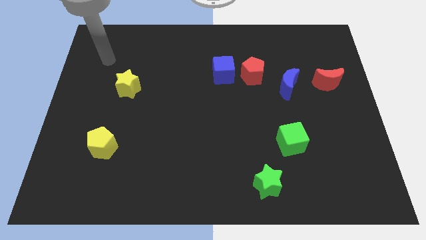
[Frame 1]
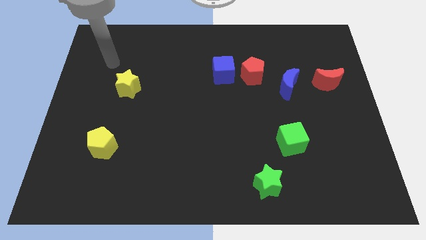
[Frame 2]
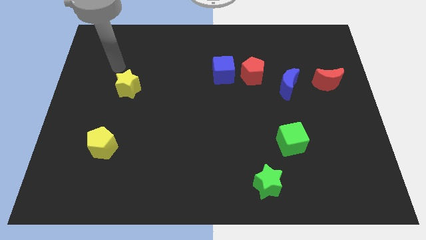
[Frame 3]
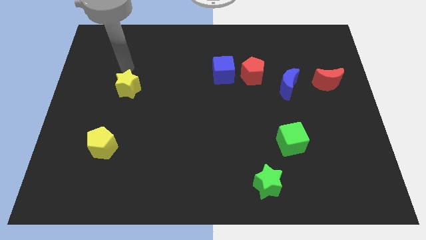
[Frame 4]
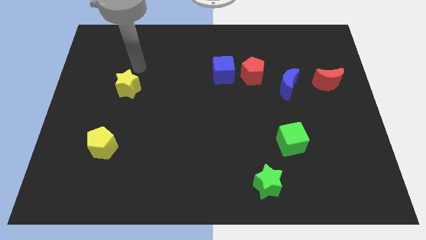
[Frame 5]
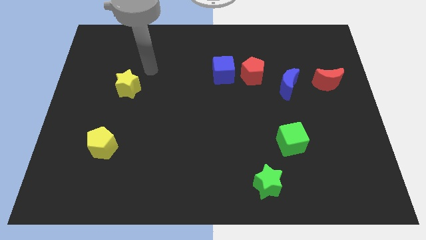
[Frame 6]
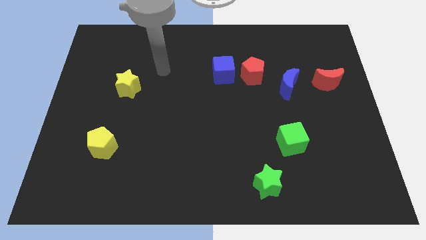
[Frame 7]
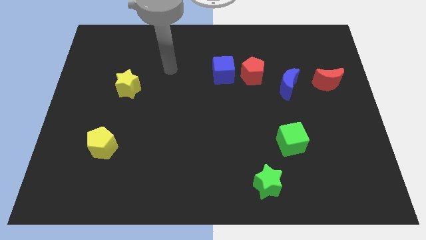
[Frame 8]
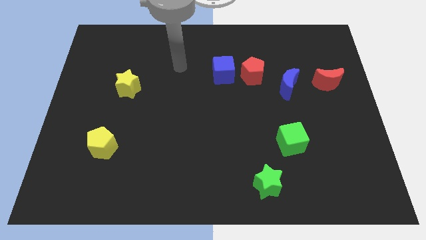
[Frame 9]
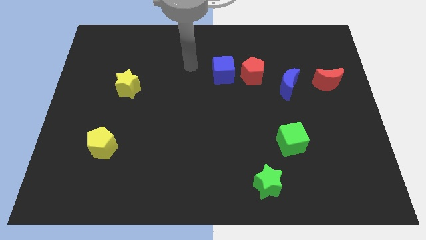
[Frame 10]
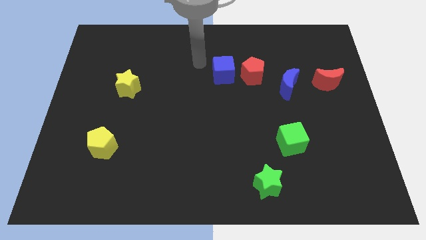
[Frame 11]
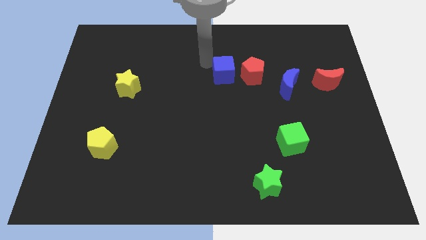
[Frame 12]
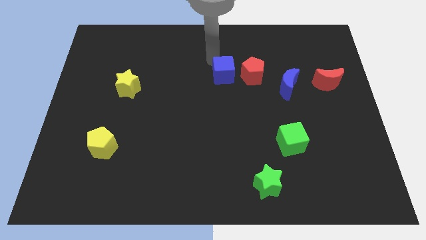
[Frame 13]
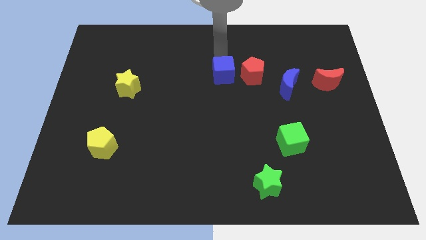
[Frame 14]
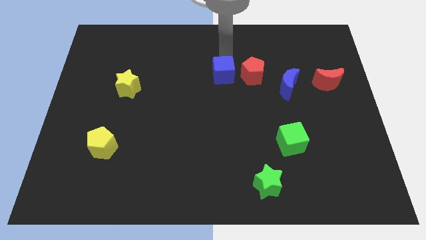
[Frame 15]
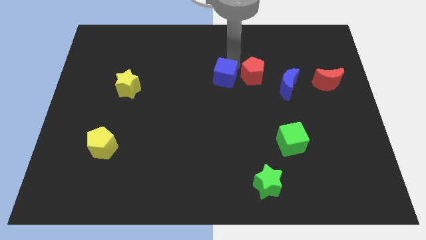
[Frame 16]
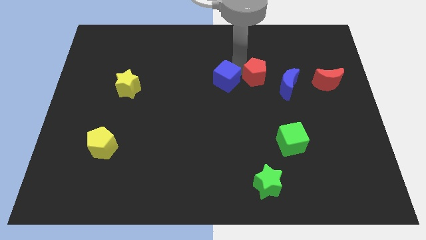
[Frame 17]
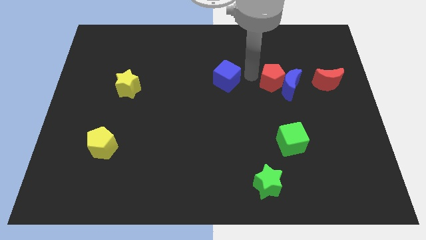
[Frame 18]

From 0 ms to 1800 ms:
pull the blue cube apart from the red pentagon

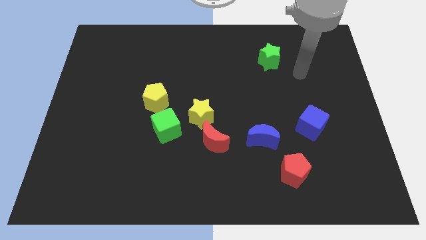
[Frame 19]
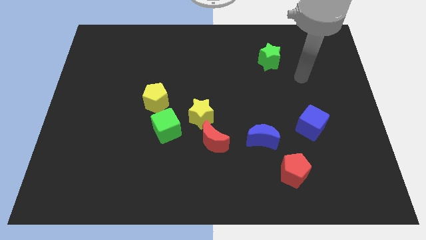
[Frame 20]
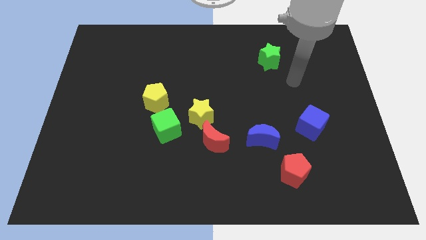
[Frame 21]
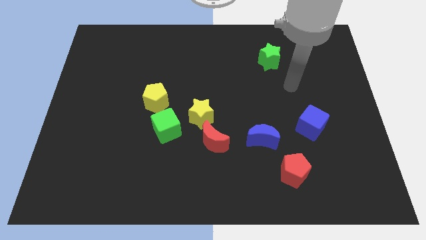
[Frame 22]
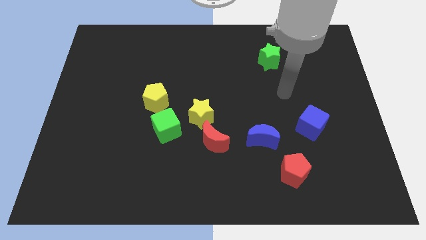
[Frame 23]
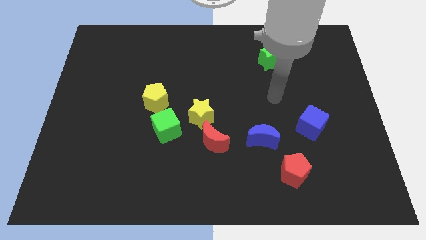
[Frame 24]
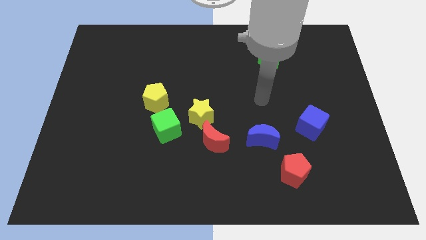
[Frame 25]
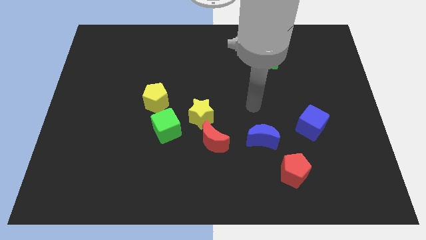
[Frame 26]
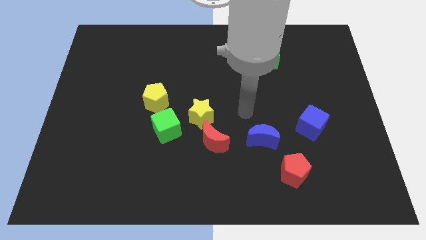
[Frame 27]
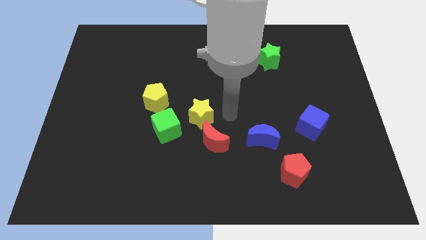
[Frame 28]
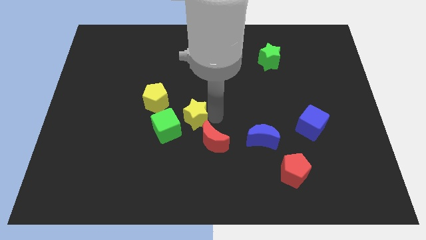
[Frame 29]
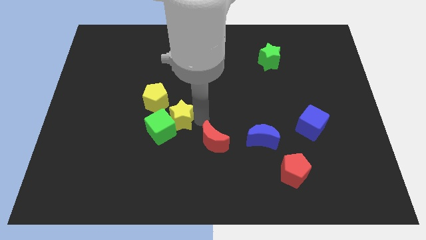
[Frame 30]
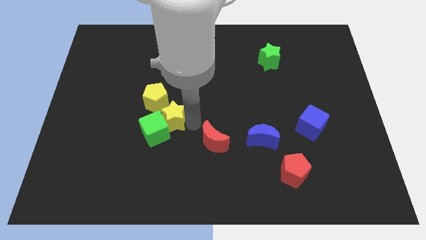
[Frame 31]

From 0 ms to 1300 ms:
pull the red moon apart from the yellow star

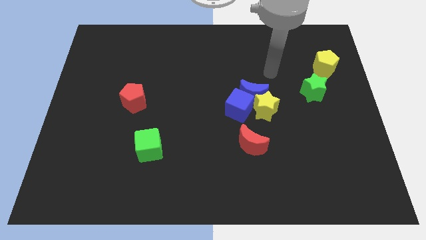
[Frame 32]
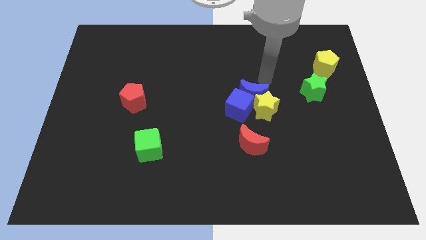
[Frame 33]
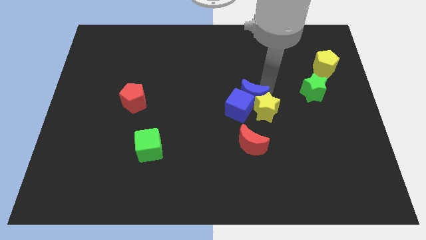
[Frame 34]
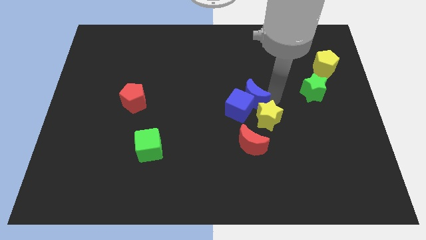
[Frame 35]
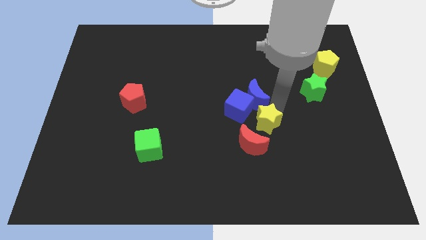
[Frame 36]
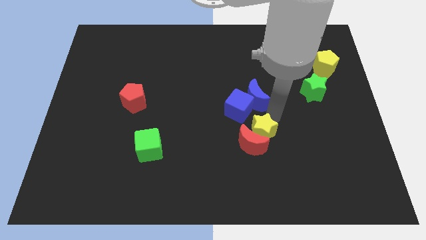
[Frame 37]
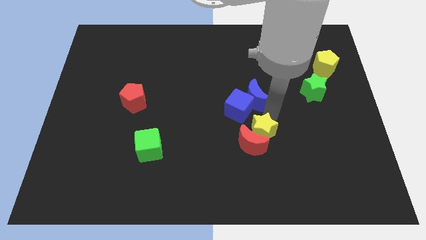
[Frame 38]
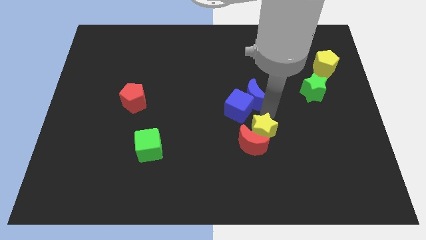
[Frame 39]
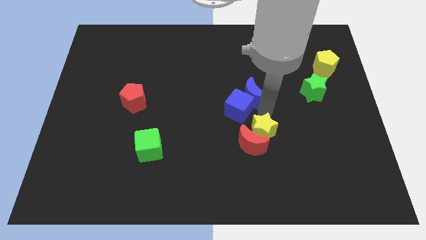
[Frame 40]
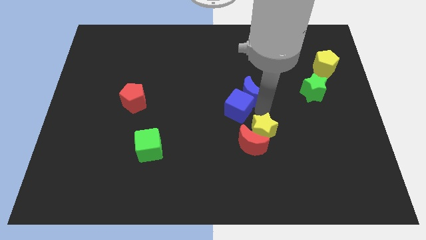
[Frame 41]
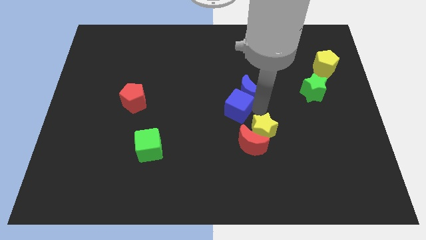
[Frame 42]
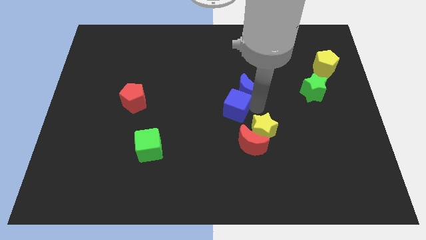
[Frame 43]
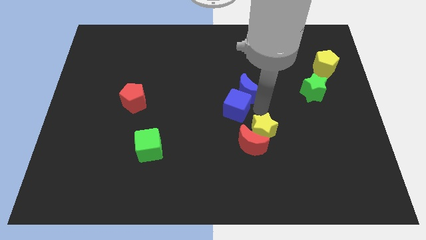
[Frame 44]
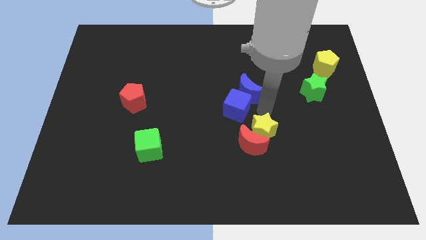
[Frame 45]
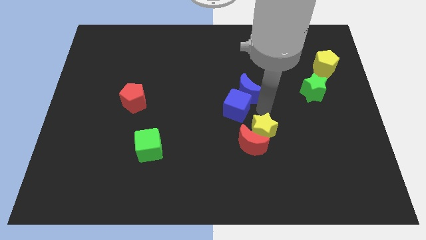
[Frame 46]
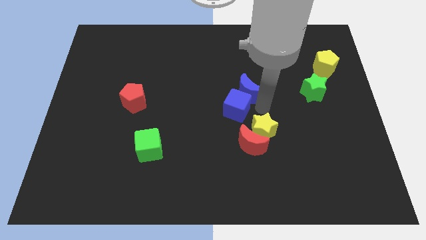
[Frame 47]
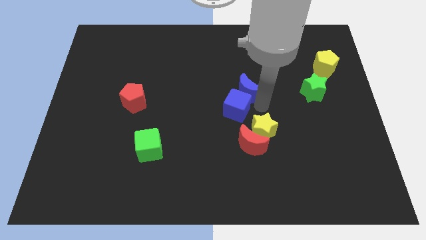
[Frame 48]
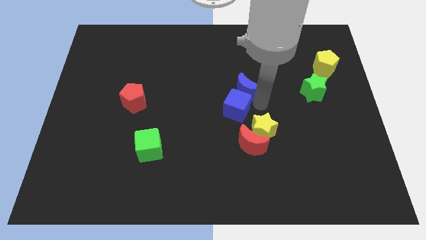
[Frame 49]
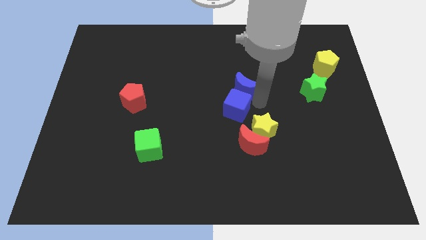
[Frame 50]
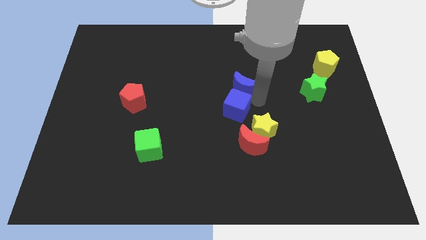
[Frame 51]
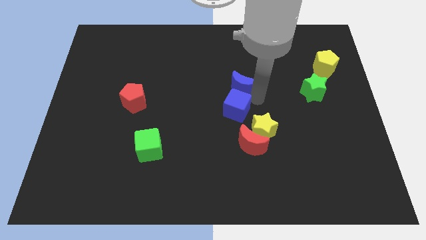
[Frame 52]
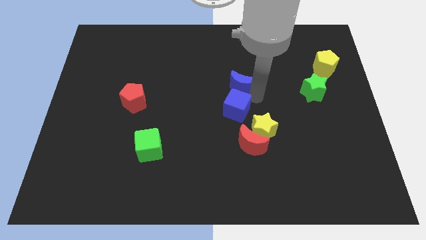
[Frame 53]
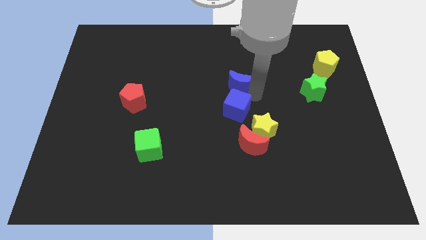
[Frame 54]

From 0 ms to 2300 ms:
separate the blue moon from the yellow star and blue cube

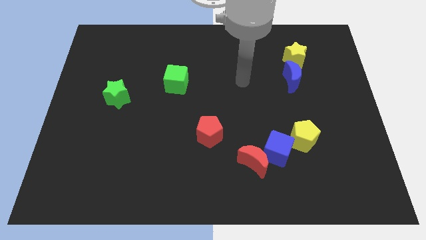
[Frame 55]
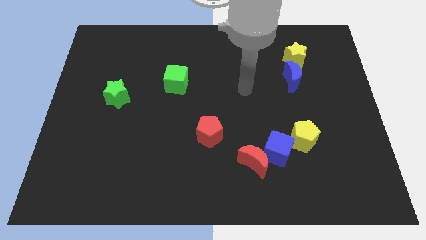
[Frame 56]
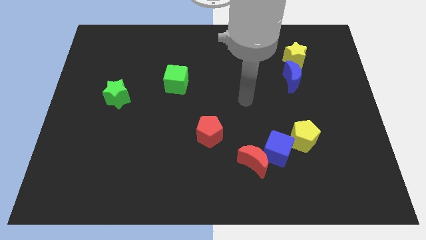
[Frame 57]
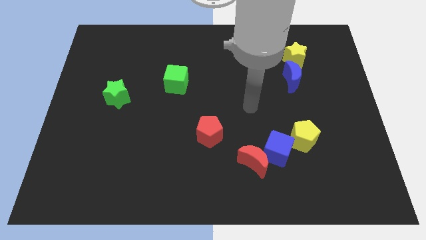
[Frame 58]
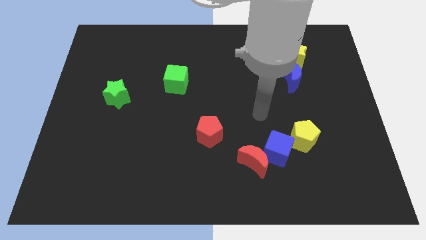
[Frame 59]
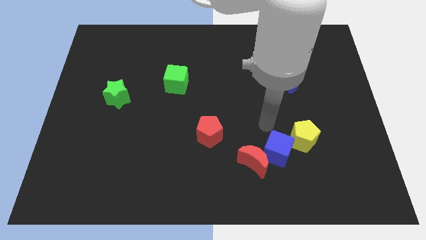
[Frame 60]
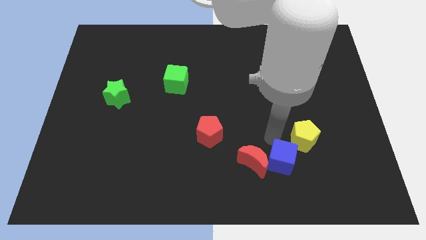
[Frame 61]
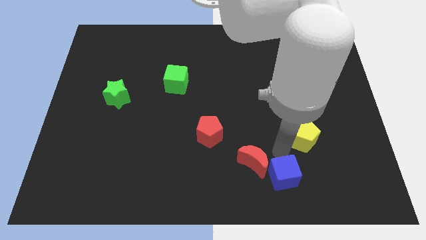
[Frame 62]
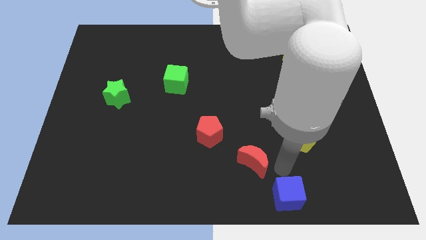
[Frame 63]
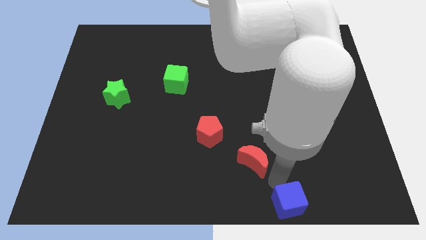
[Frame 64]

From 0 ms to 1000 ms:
move the red moon away from the blue cube

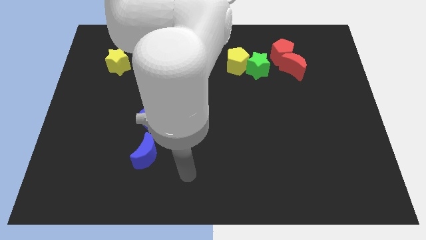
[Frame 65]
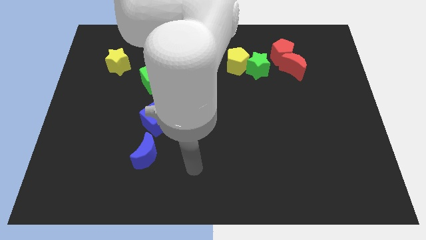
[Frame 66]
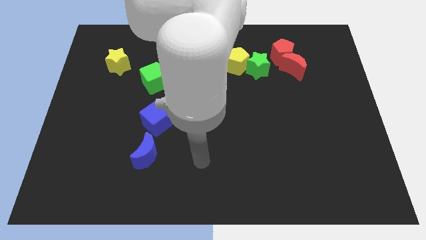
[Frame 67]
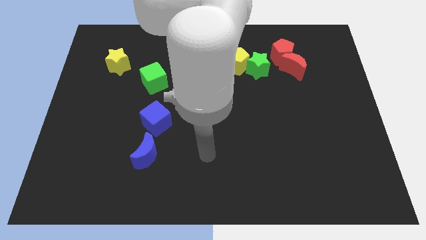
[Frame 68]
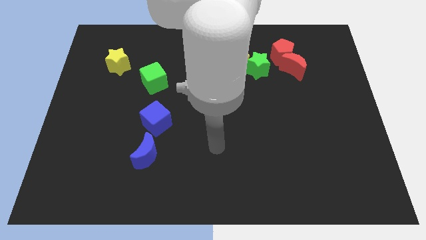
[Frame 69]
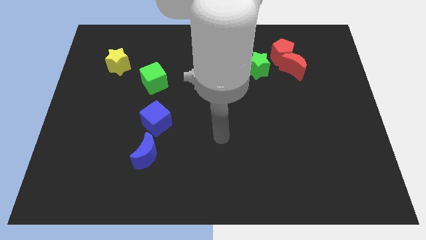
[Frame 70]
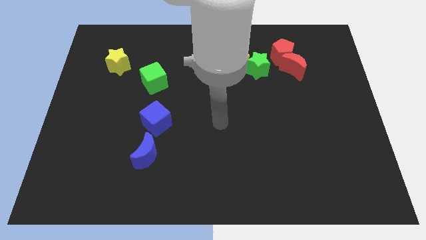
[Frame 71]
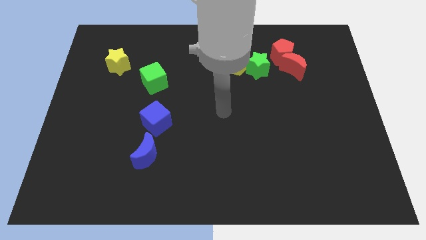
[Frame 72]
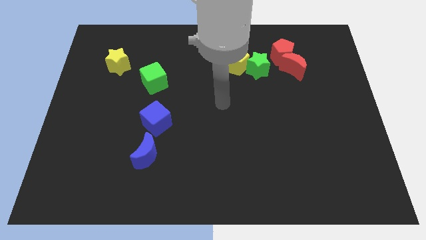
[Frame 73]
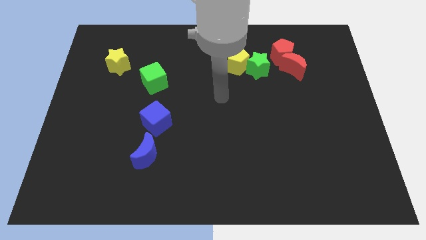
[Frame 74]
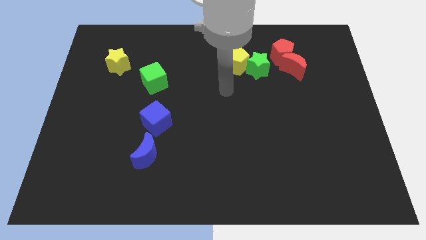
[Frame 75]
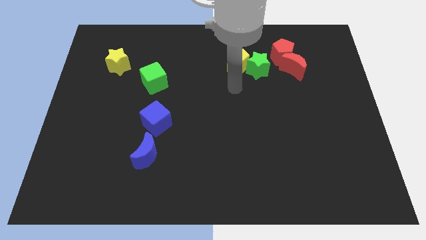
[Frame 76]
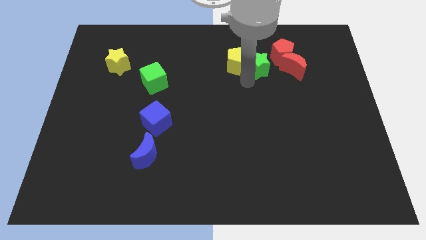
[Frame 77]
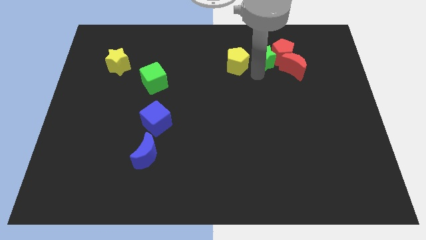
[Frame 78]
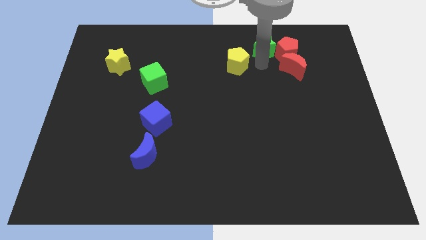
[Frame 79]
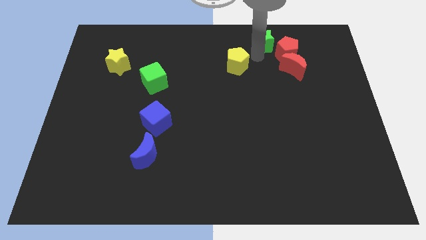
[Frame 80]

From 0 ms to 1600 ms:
move the yellow pentagon away from the green star

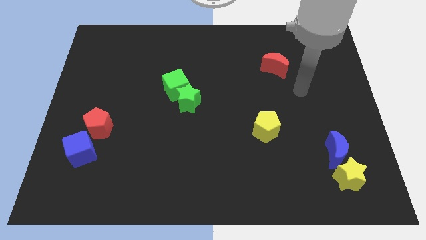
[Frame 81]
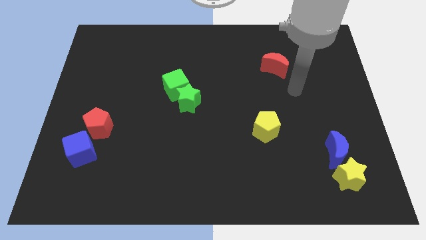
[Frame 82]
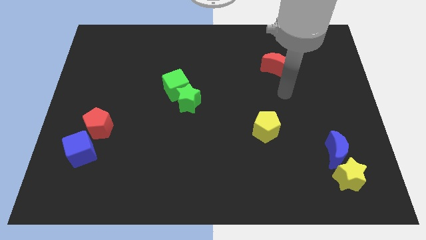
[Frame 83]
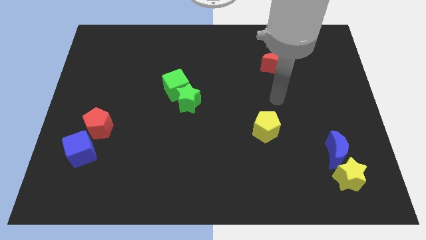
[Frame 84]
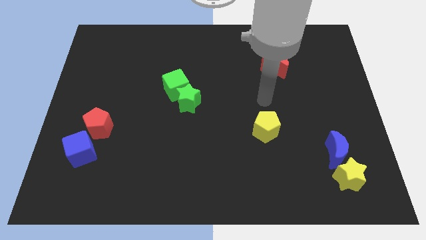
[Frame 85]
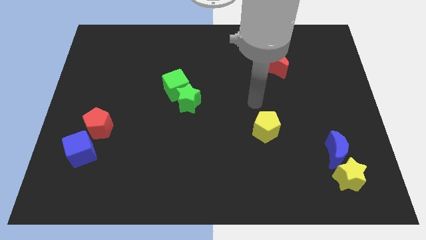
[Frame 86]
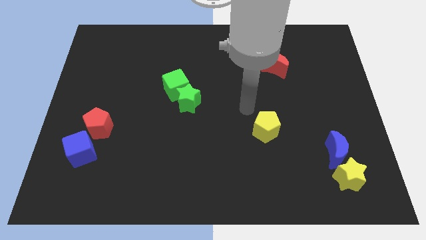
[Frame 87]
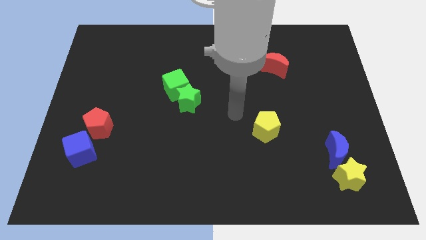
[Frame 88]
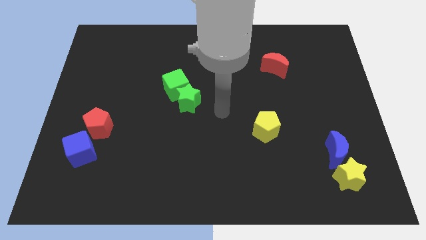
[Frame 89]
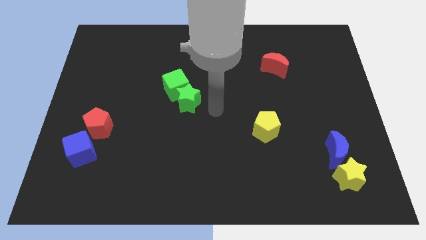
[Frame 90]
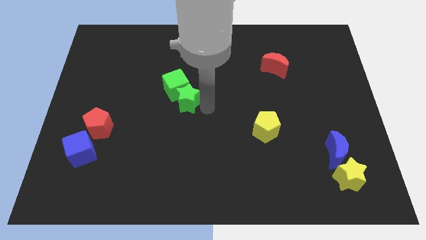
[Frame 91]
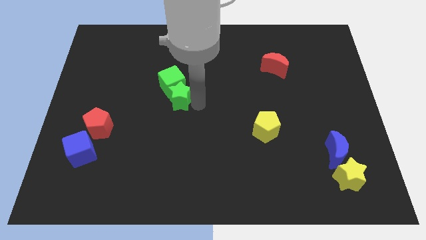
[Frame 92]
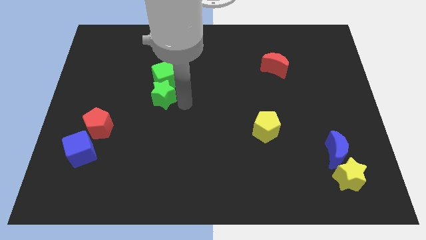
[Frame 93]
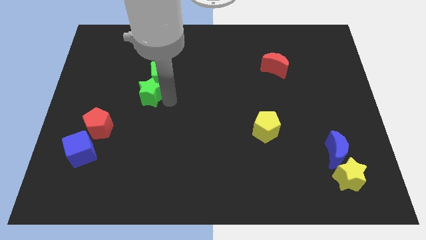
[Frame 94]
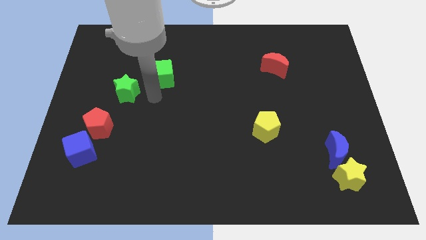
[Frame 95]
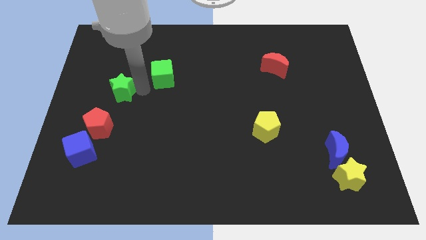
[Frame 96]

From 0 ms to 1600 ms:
move the green cube away from the green star
